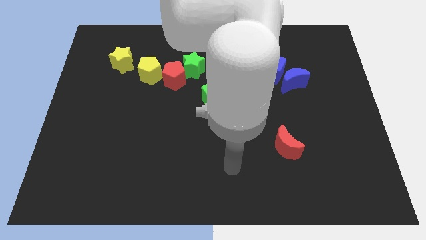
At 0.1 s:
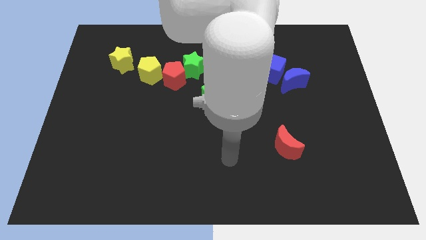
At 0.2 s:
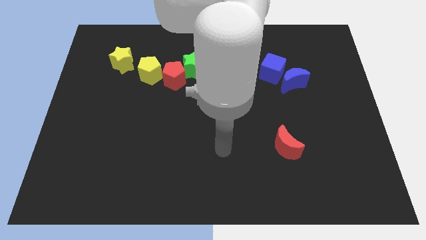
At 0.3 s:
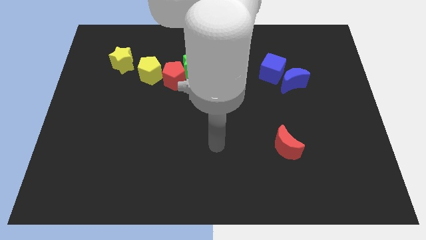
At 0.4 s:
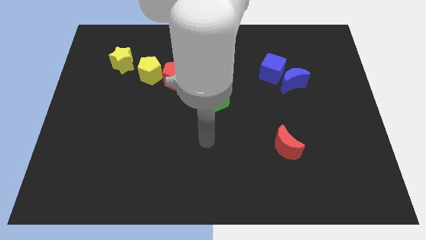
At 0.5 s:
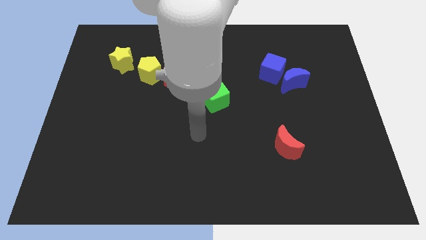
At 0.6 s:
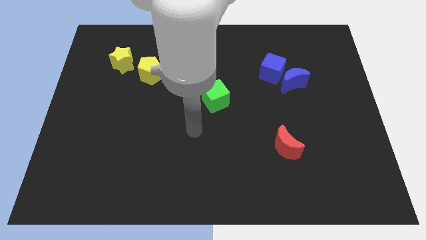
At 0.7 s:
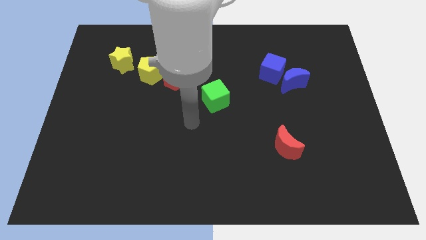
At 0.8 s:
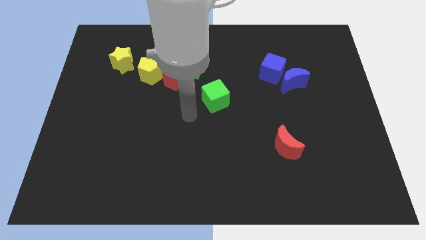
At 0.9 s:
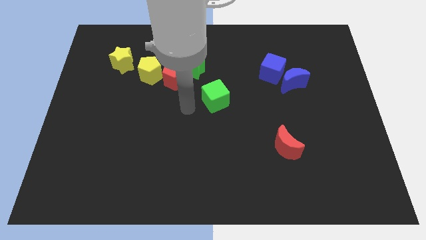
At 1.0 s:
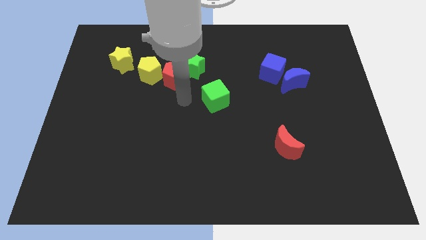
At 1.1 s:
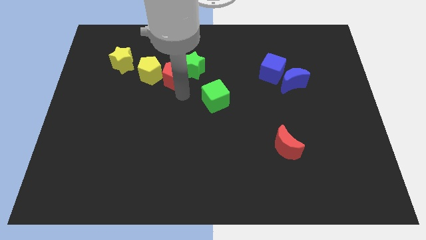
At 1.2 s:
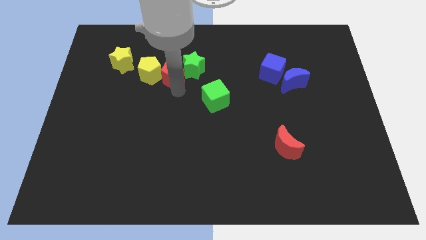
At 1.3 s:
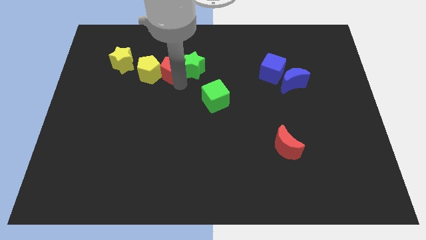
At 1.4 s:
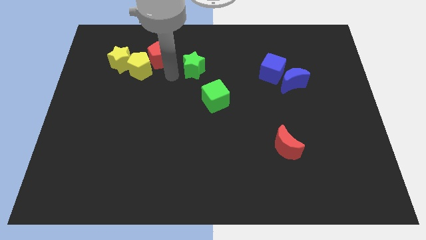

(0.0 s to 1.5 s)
separate the green star from the red pentagon

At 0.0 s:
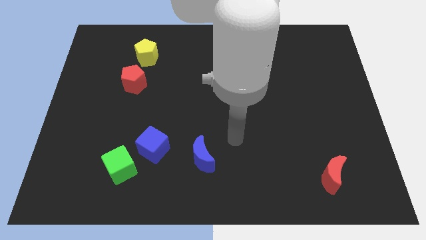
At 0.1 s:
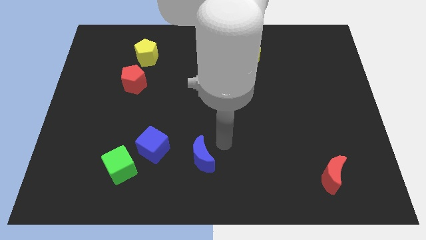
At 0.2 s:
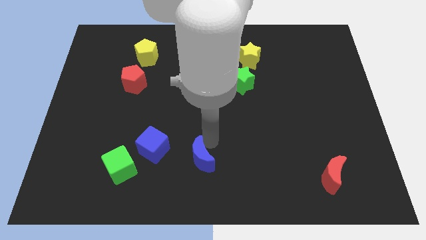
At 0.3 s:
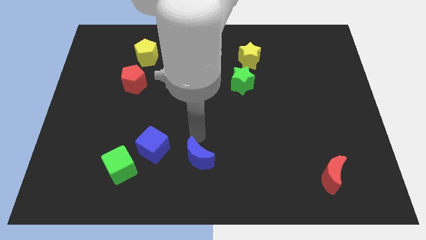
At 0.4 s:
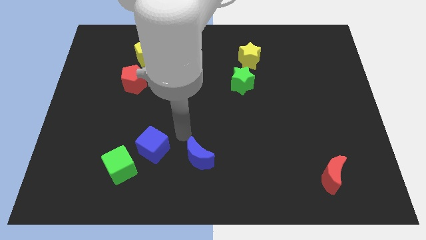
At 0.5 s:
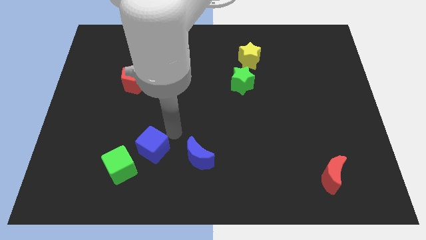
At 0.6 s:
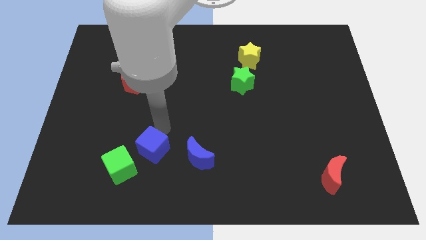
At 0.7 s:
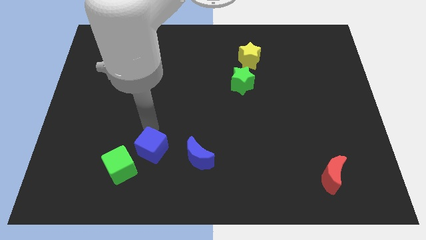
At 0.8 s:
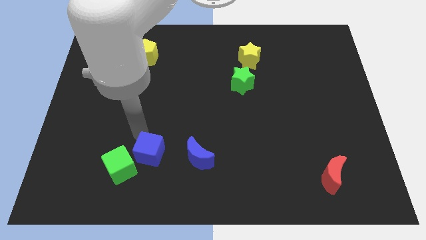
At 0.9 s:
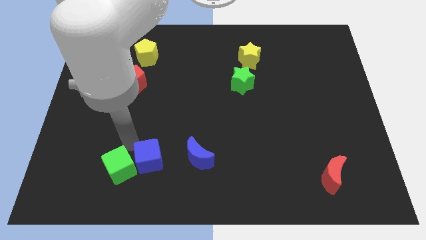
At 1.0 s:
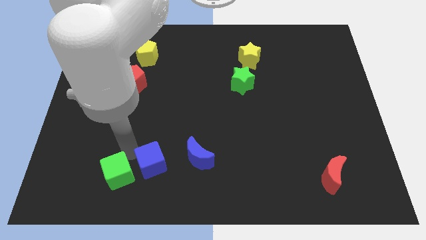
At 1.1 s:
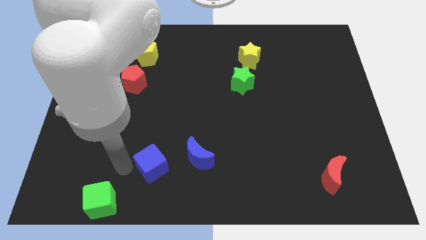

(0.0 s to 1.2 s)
pull the blue cube apart from the green cube

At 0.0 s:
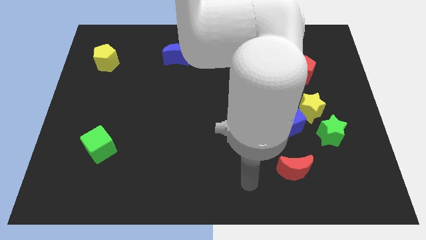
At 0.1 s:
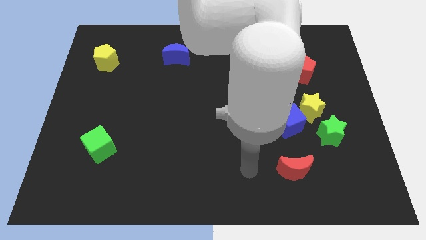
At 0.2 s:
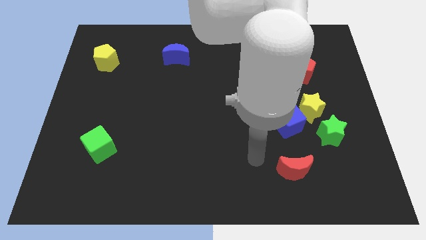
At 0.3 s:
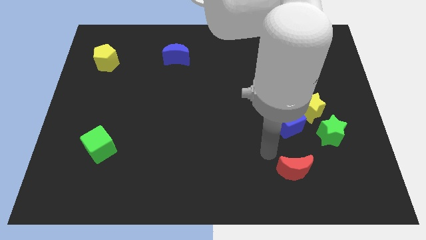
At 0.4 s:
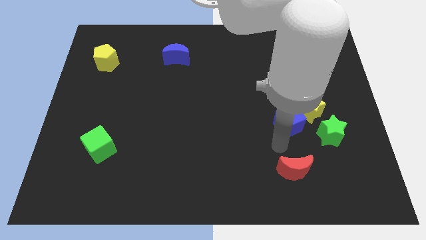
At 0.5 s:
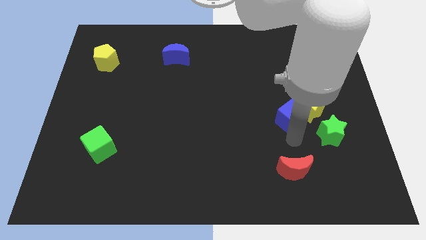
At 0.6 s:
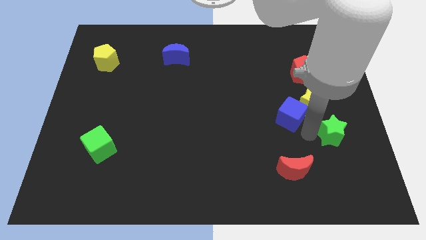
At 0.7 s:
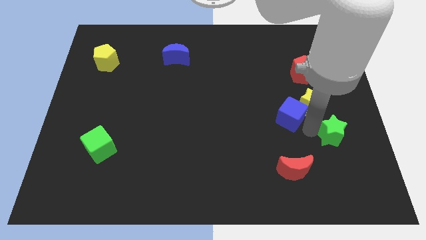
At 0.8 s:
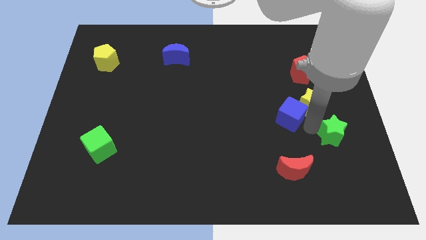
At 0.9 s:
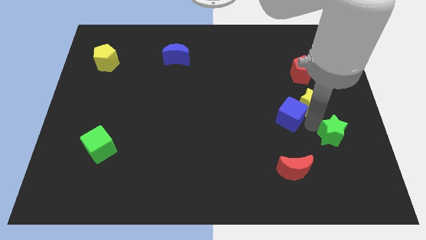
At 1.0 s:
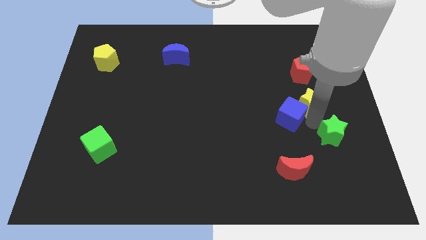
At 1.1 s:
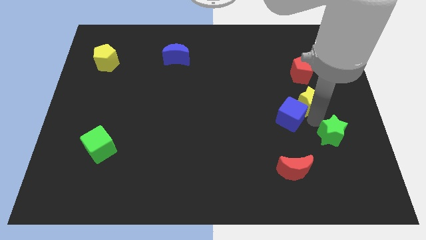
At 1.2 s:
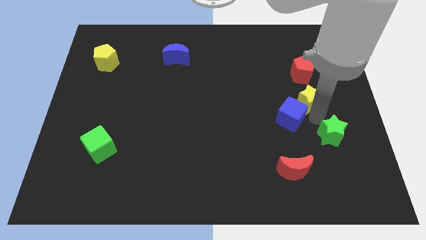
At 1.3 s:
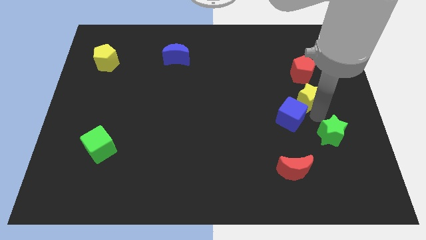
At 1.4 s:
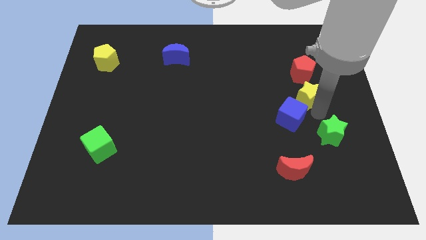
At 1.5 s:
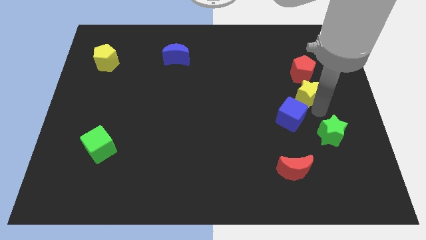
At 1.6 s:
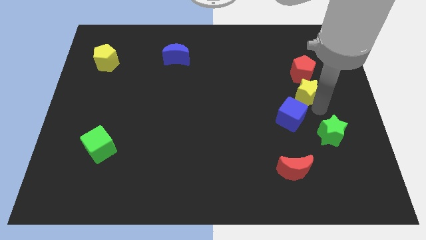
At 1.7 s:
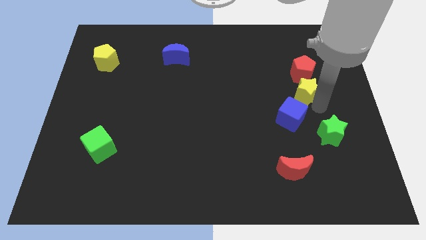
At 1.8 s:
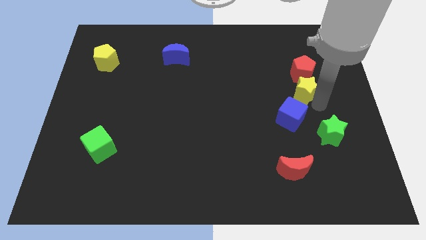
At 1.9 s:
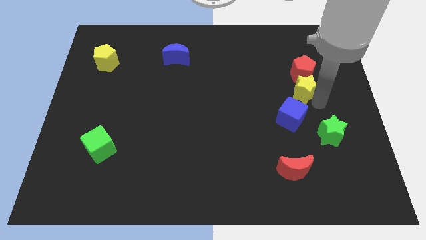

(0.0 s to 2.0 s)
separate the yellow star from the blue cube and green star

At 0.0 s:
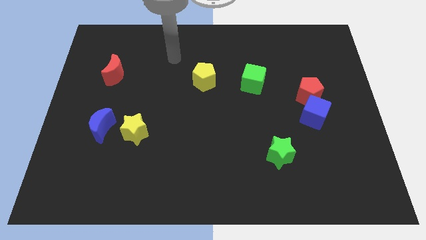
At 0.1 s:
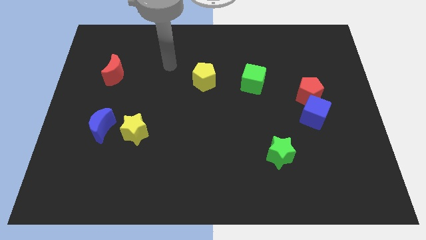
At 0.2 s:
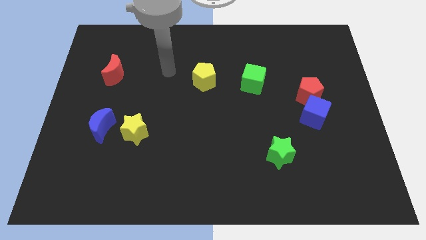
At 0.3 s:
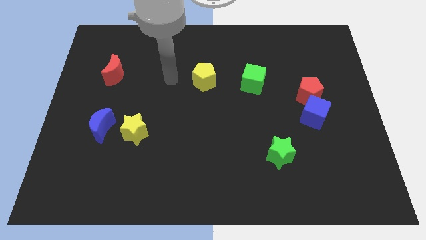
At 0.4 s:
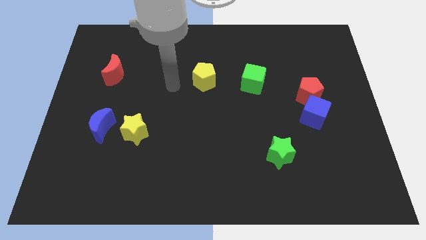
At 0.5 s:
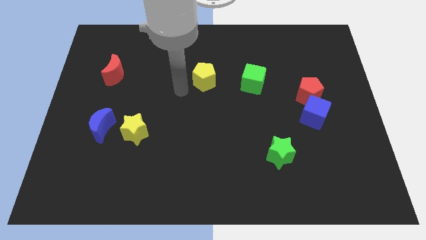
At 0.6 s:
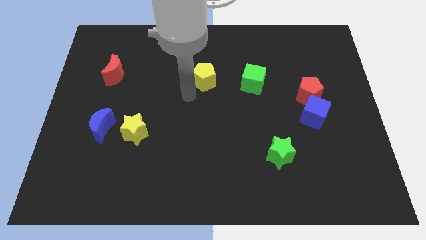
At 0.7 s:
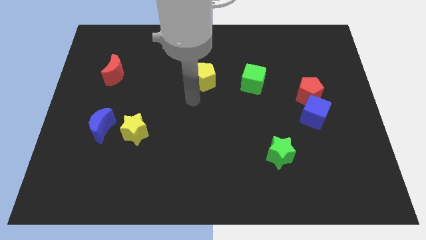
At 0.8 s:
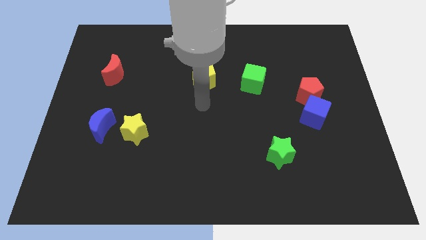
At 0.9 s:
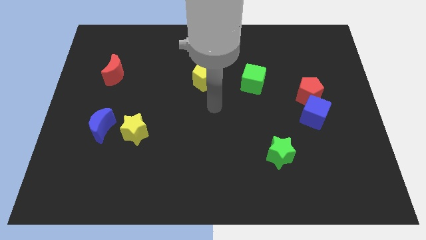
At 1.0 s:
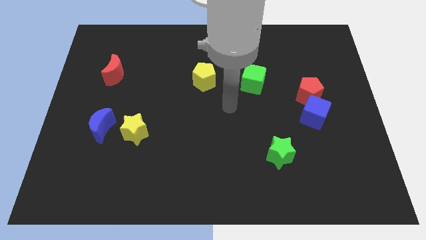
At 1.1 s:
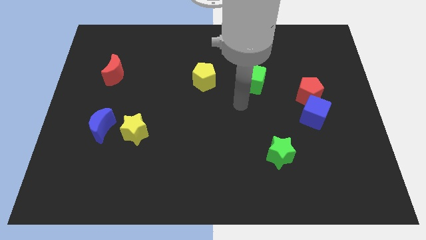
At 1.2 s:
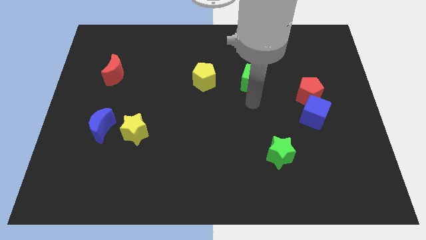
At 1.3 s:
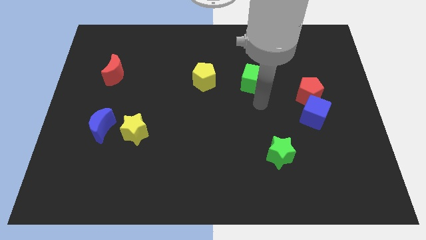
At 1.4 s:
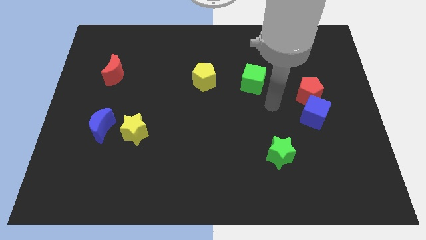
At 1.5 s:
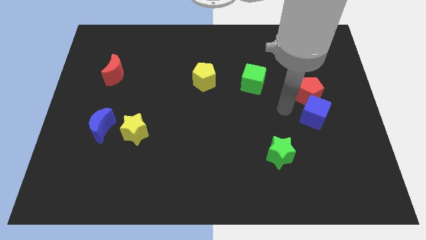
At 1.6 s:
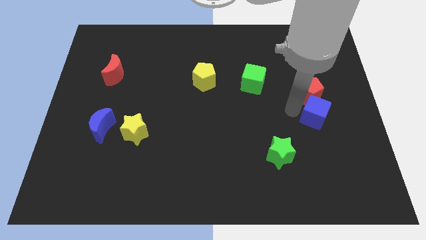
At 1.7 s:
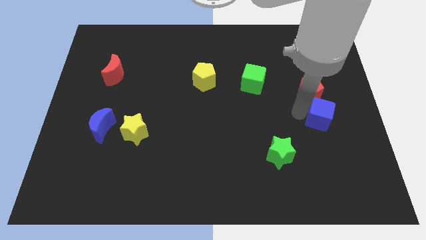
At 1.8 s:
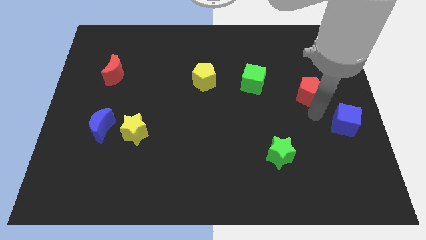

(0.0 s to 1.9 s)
separate the red pentagon from the blue cube

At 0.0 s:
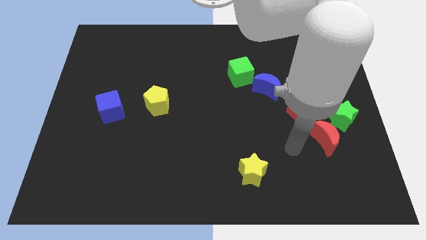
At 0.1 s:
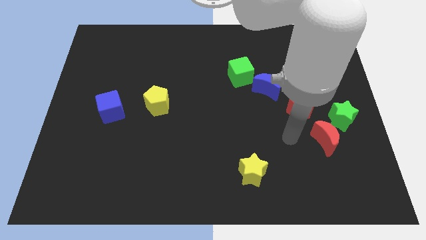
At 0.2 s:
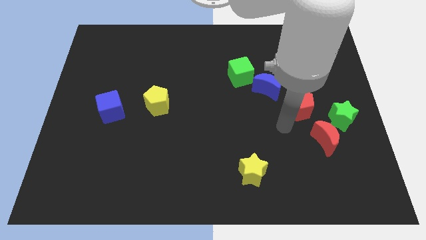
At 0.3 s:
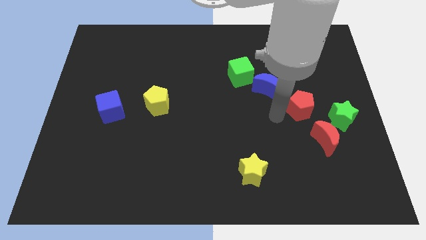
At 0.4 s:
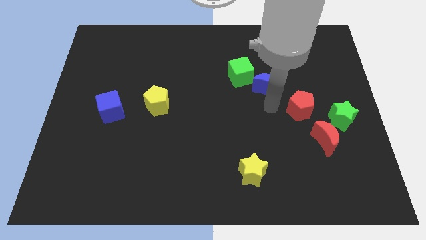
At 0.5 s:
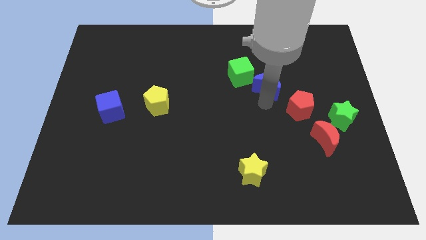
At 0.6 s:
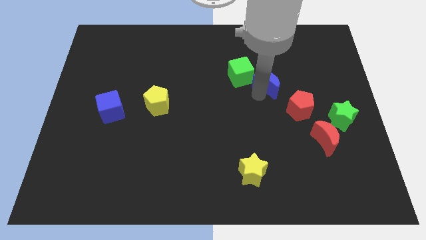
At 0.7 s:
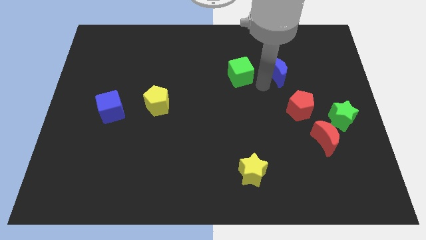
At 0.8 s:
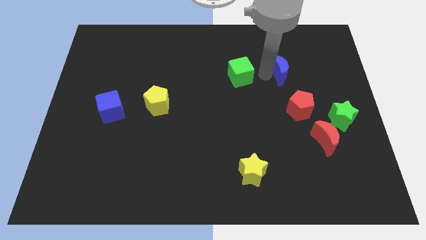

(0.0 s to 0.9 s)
separate the green cube from the blue moon

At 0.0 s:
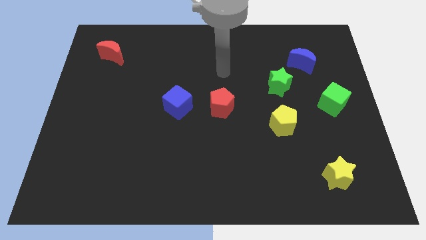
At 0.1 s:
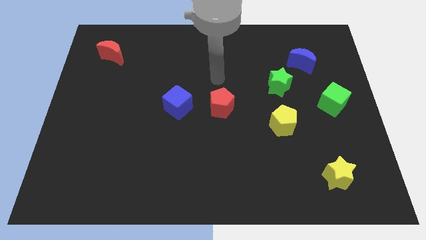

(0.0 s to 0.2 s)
pull the red pentagon apart from the blue cube

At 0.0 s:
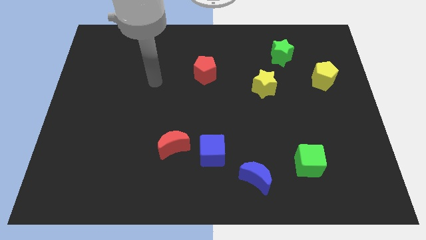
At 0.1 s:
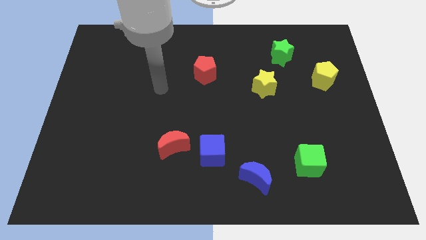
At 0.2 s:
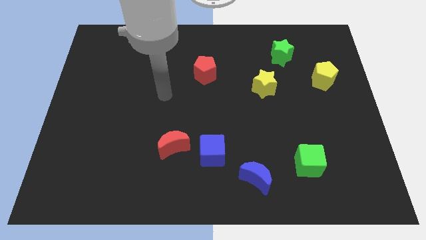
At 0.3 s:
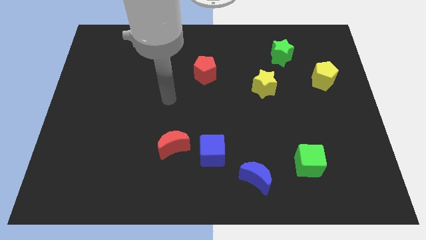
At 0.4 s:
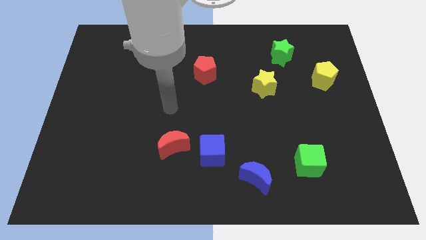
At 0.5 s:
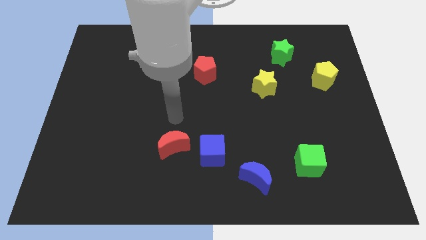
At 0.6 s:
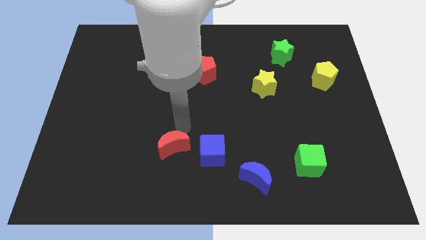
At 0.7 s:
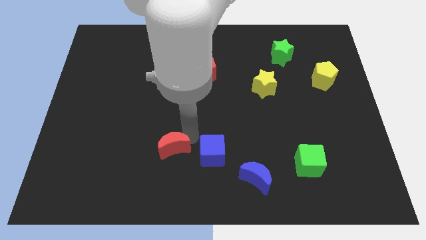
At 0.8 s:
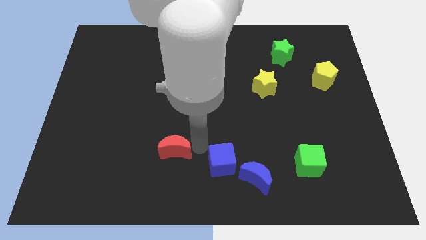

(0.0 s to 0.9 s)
pull the red moon apart from the blue cube

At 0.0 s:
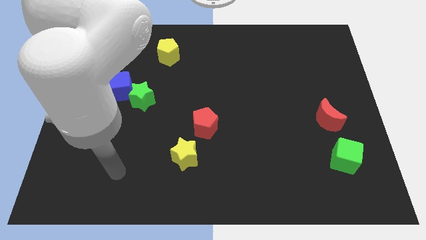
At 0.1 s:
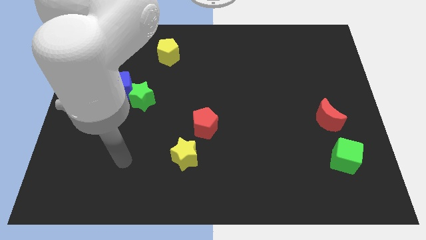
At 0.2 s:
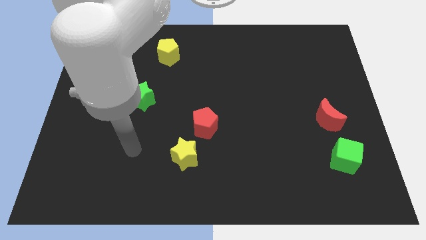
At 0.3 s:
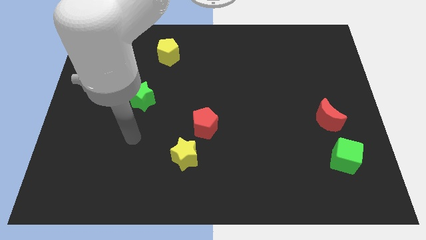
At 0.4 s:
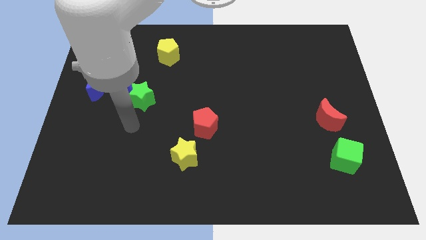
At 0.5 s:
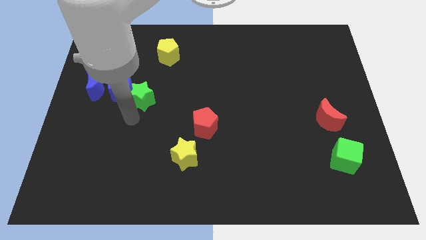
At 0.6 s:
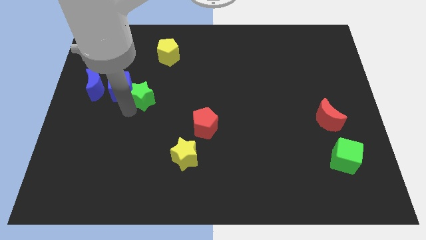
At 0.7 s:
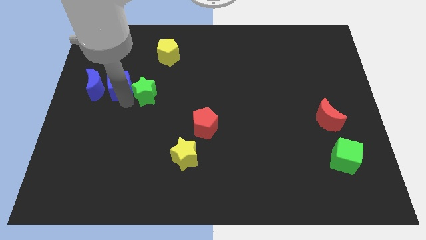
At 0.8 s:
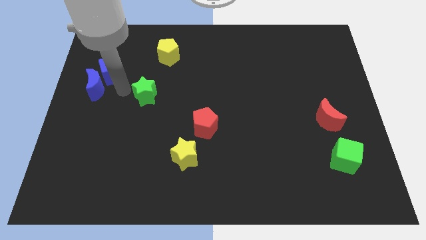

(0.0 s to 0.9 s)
pull the green star apart from the blue cube
